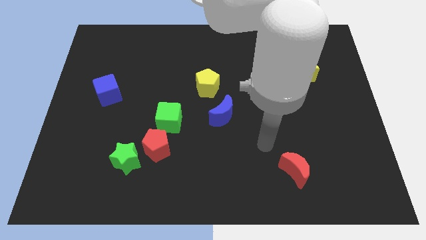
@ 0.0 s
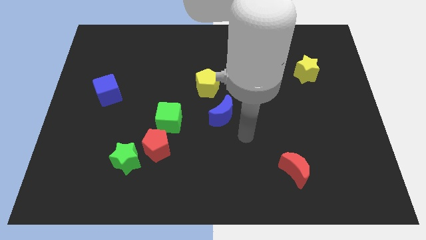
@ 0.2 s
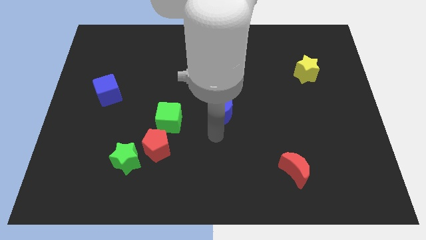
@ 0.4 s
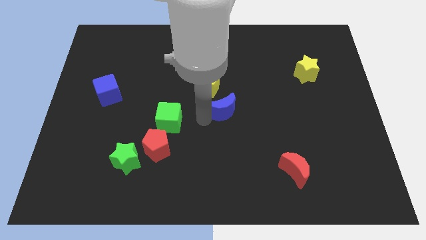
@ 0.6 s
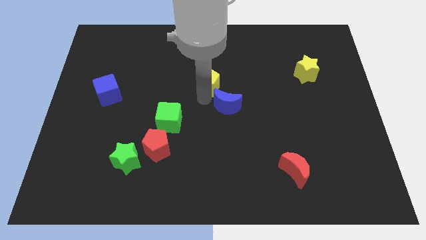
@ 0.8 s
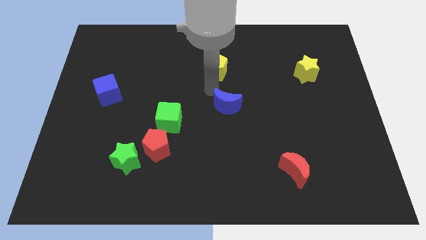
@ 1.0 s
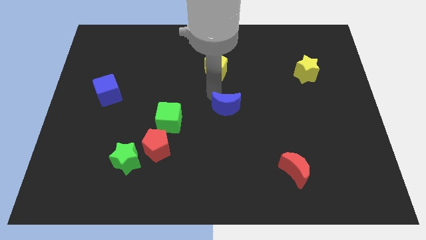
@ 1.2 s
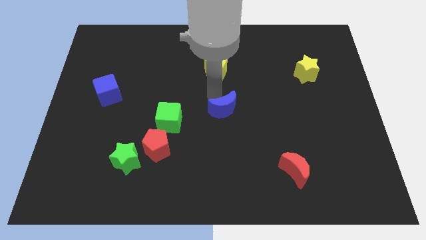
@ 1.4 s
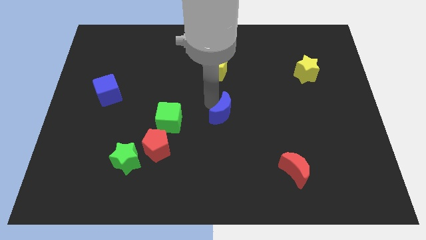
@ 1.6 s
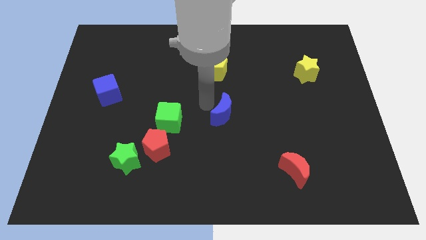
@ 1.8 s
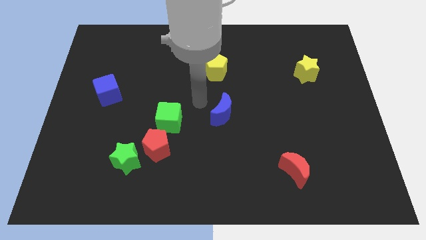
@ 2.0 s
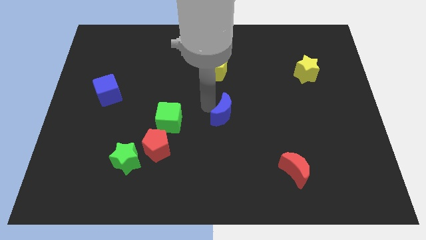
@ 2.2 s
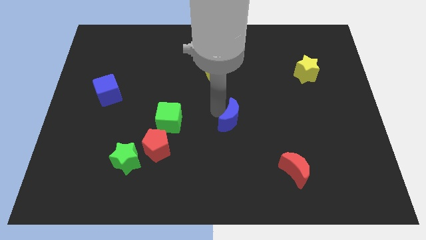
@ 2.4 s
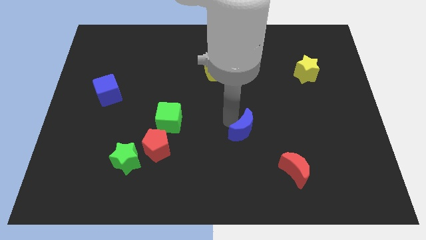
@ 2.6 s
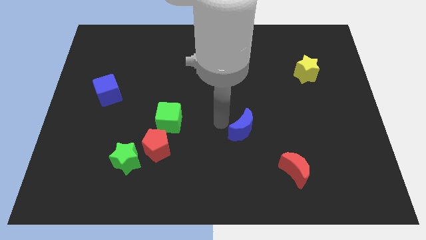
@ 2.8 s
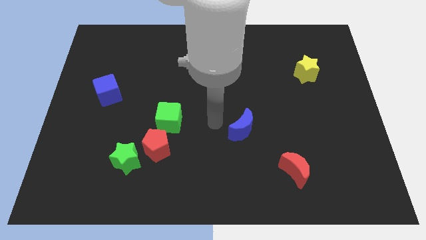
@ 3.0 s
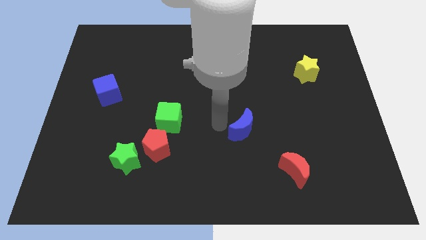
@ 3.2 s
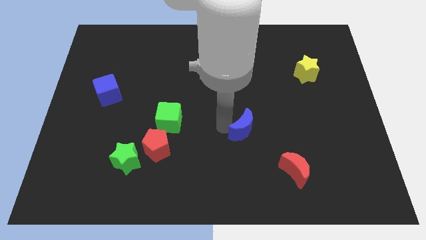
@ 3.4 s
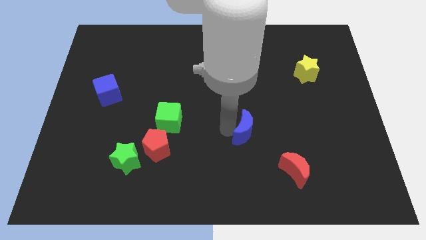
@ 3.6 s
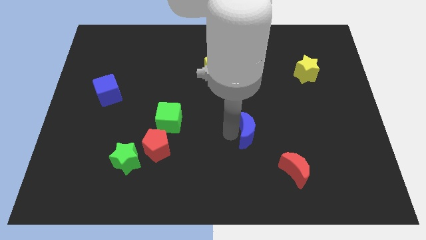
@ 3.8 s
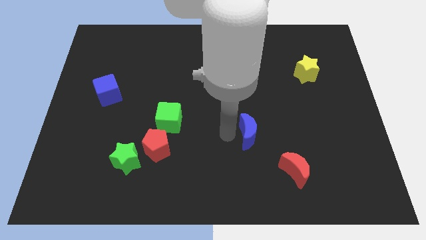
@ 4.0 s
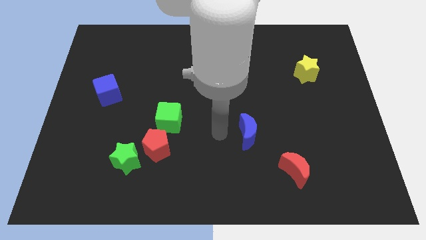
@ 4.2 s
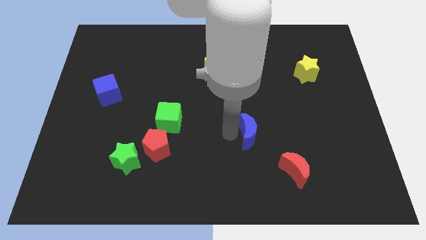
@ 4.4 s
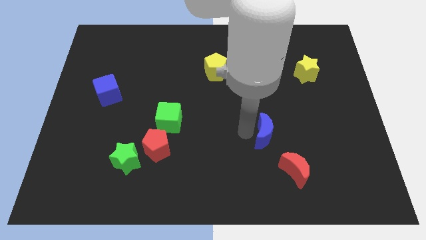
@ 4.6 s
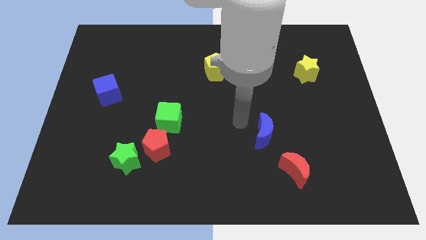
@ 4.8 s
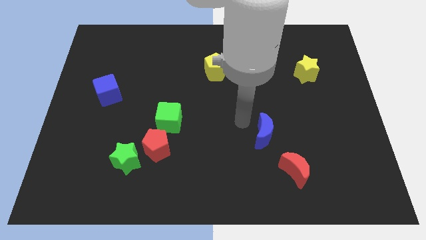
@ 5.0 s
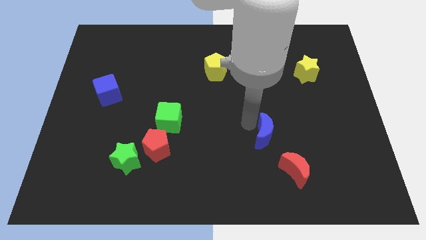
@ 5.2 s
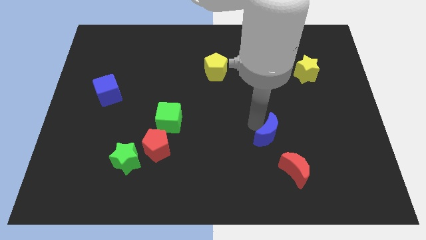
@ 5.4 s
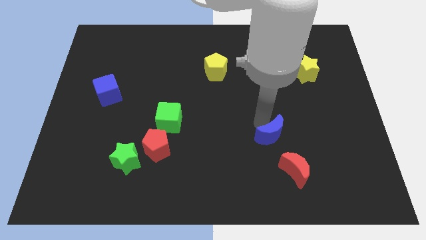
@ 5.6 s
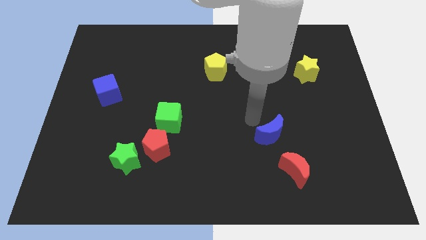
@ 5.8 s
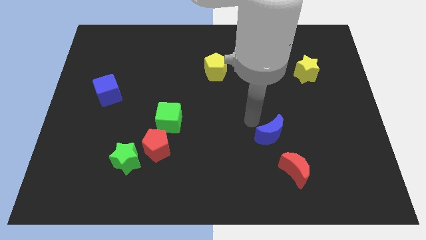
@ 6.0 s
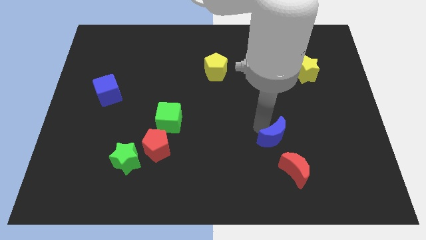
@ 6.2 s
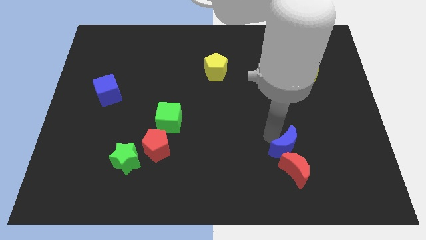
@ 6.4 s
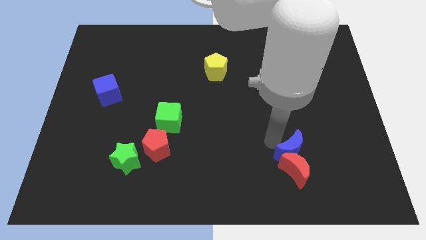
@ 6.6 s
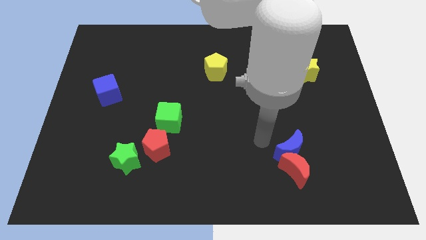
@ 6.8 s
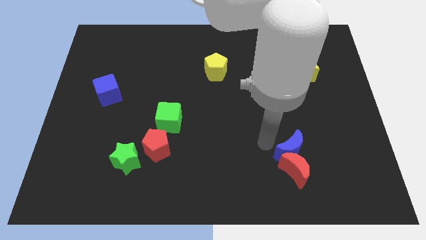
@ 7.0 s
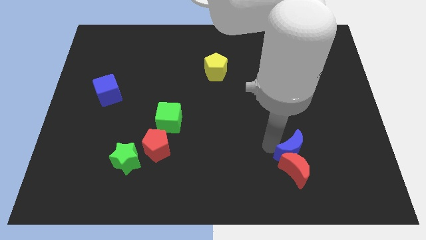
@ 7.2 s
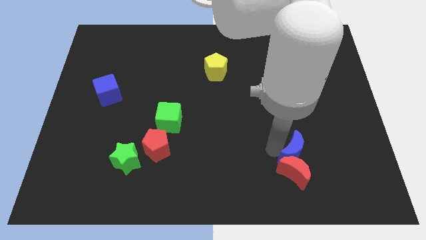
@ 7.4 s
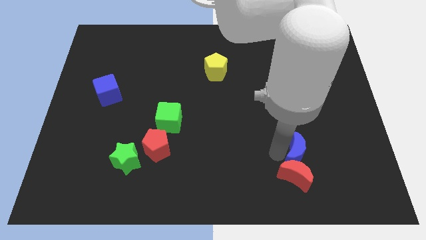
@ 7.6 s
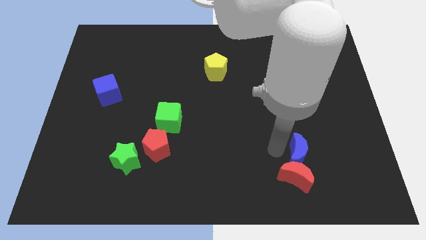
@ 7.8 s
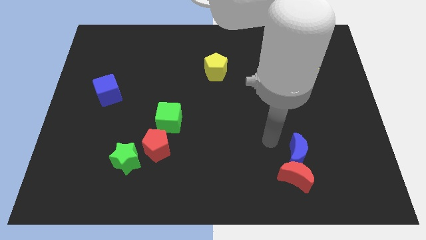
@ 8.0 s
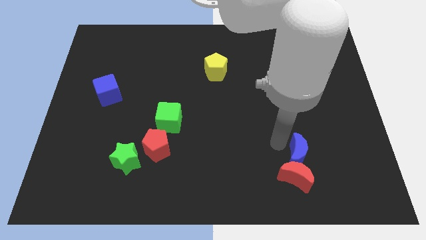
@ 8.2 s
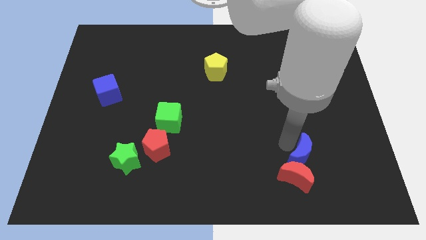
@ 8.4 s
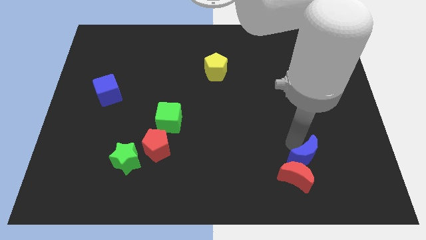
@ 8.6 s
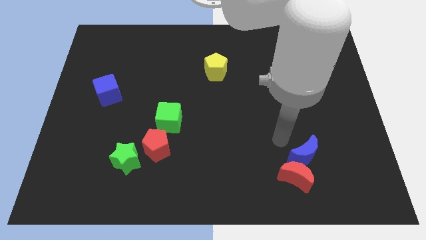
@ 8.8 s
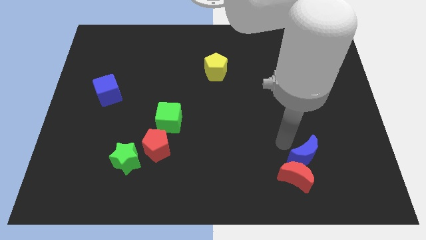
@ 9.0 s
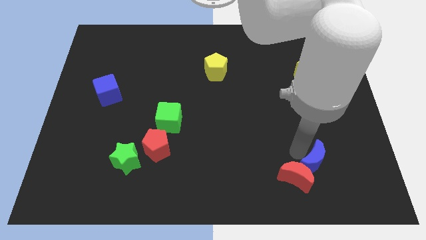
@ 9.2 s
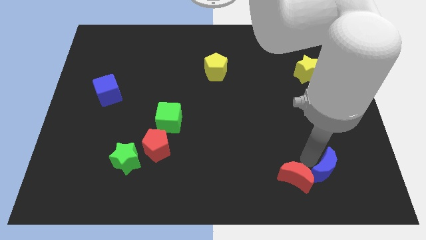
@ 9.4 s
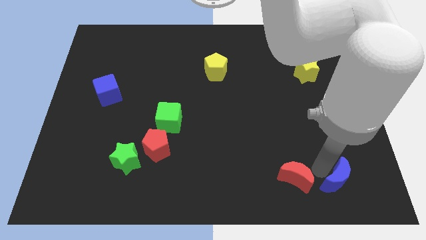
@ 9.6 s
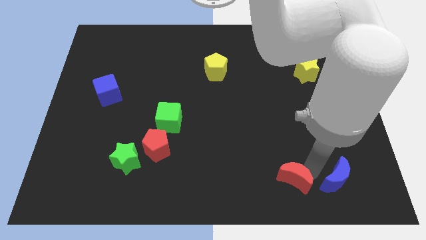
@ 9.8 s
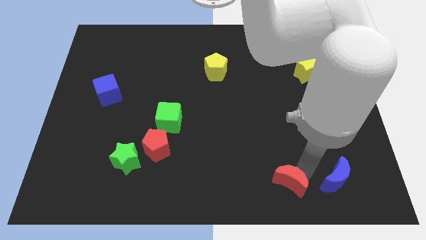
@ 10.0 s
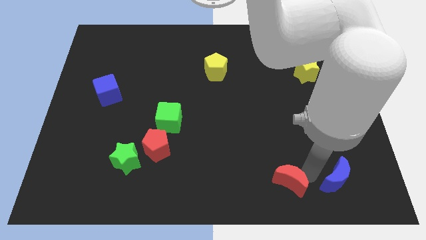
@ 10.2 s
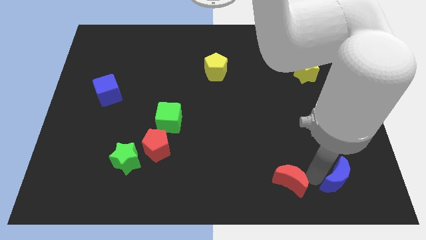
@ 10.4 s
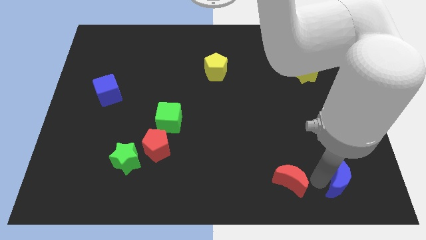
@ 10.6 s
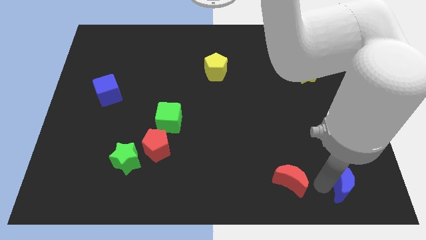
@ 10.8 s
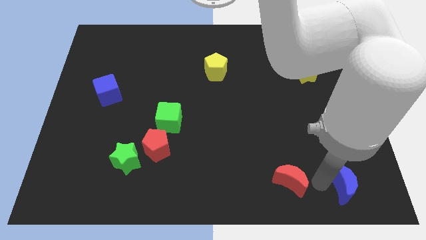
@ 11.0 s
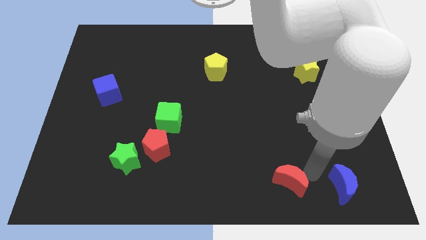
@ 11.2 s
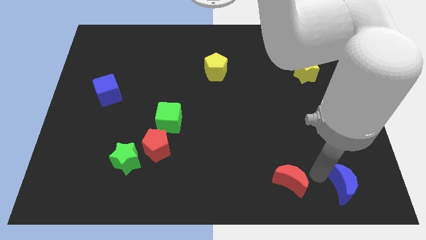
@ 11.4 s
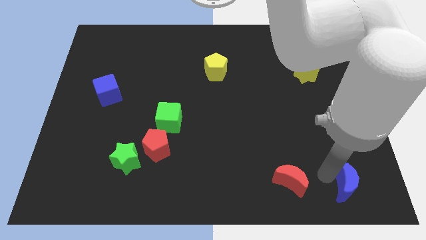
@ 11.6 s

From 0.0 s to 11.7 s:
put the blue moon to the lower right corner

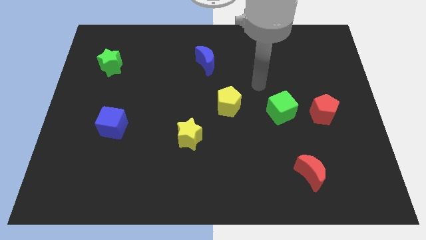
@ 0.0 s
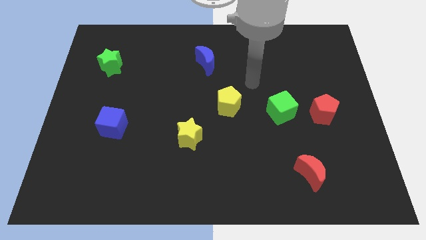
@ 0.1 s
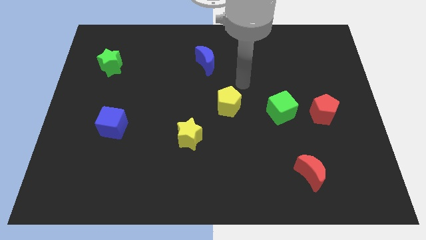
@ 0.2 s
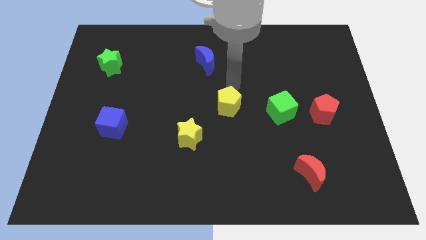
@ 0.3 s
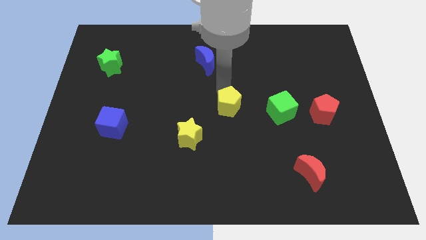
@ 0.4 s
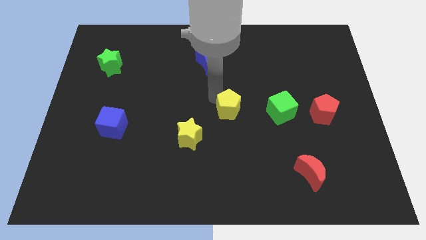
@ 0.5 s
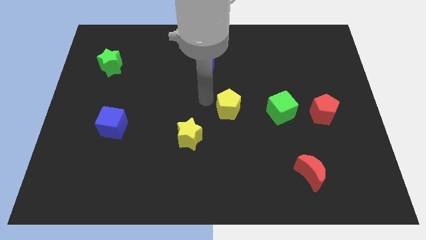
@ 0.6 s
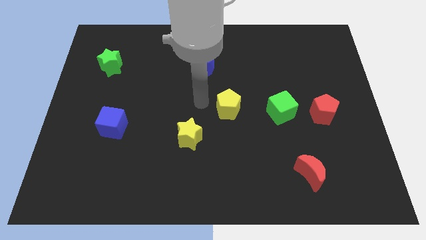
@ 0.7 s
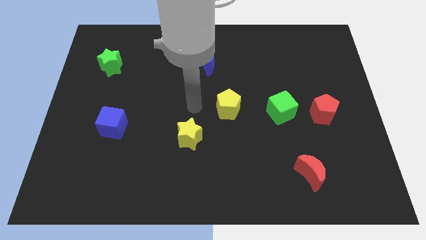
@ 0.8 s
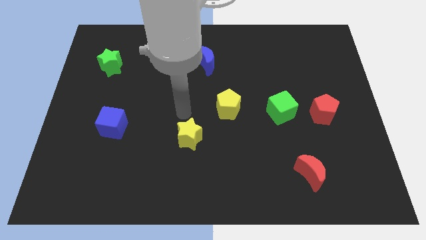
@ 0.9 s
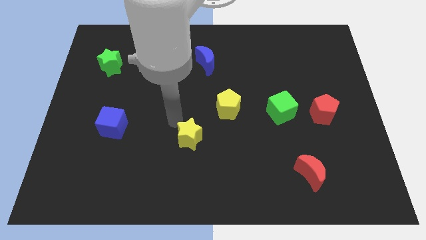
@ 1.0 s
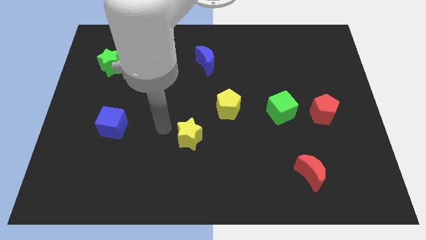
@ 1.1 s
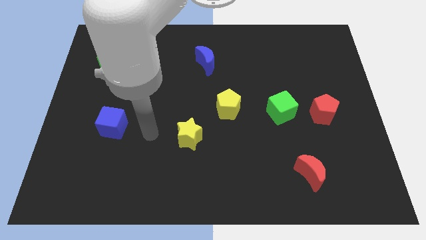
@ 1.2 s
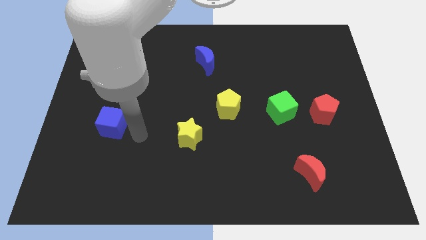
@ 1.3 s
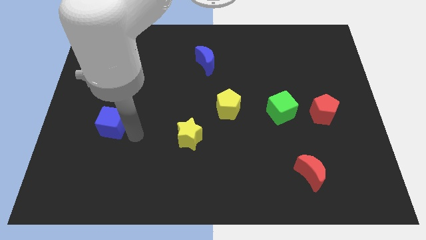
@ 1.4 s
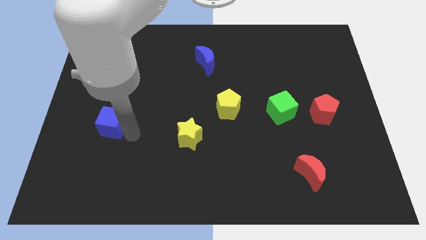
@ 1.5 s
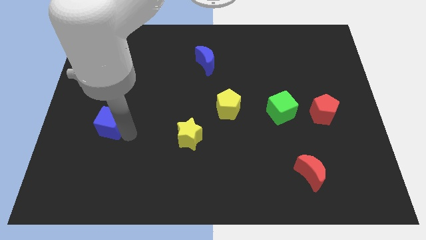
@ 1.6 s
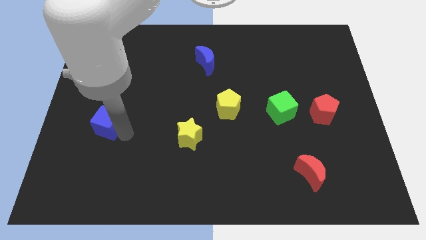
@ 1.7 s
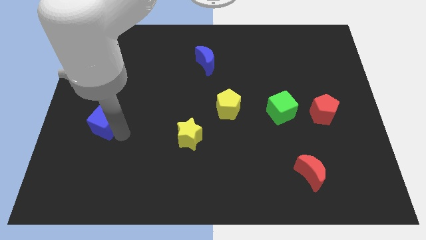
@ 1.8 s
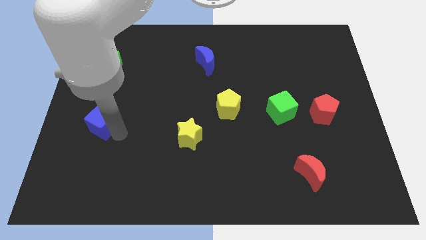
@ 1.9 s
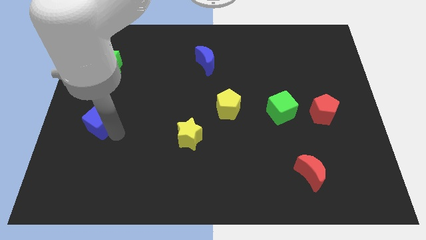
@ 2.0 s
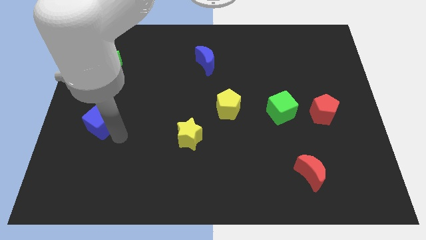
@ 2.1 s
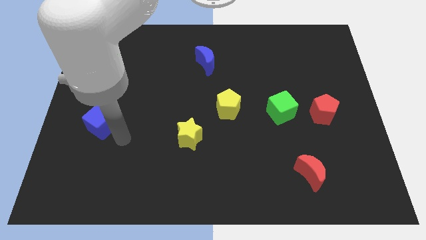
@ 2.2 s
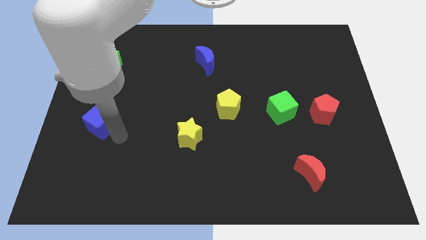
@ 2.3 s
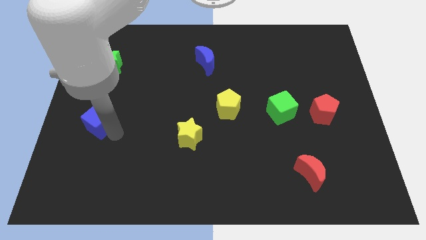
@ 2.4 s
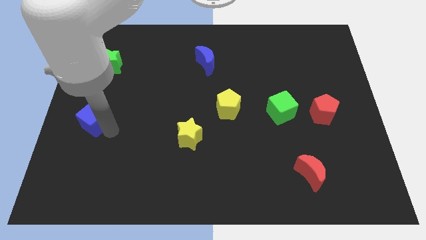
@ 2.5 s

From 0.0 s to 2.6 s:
slide the blue cube to the left side of the board
